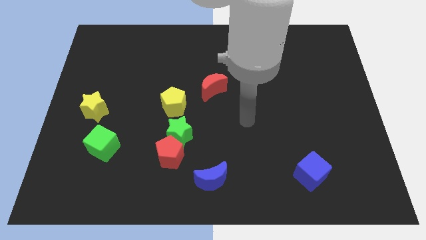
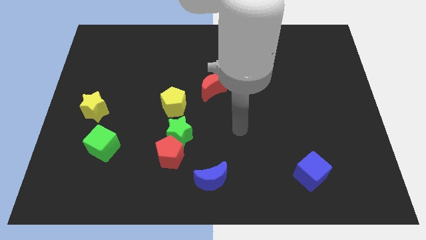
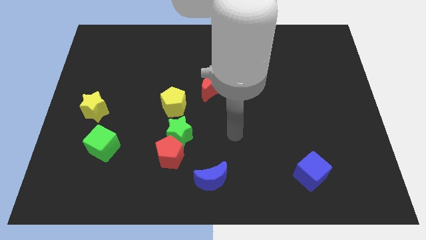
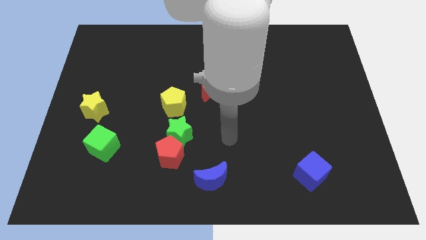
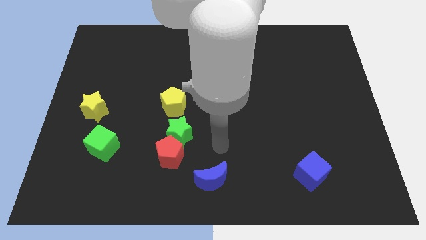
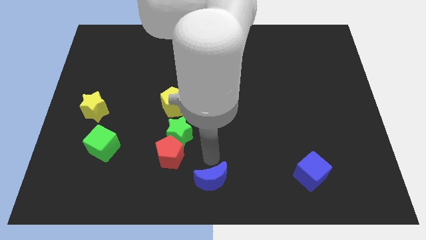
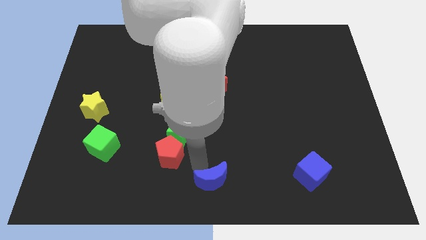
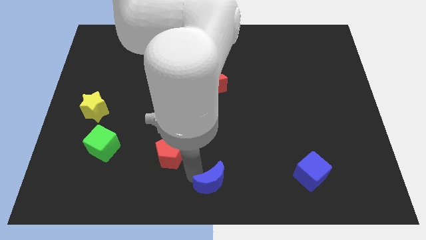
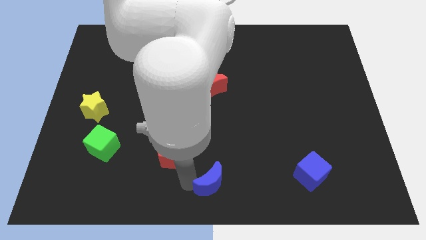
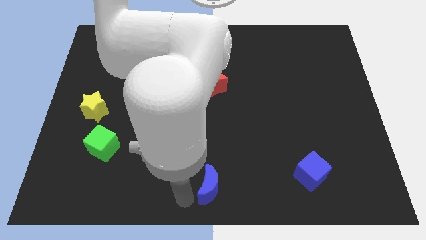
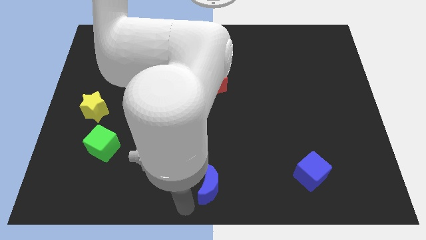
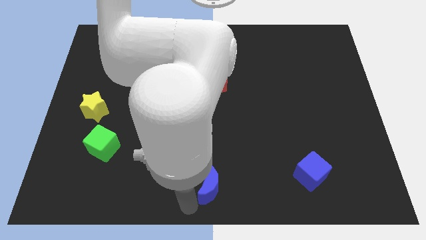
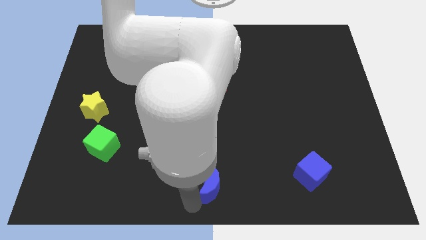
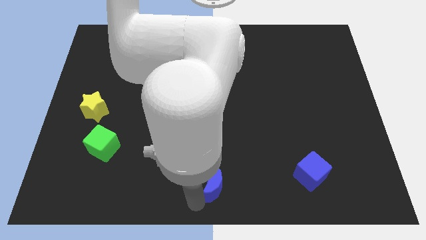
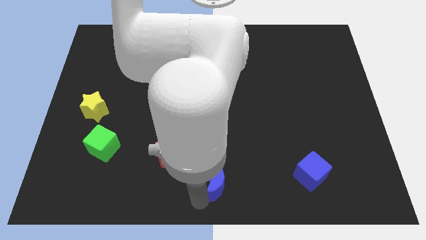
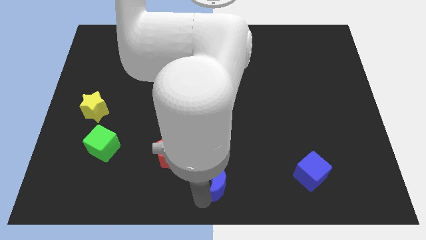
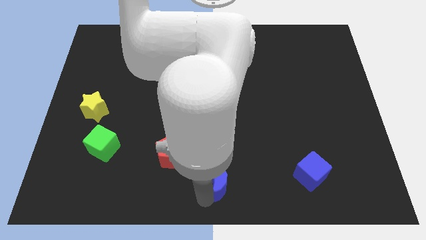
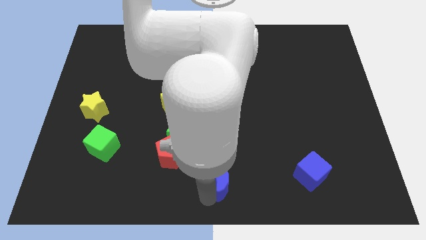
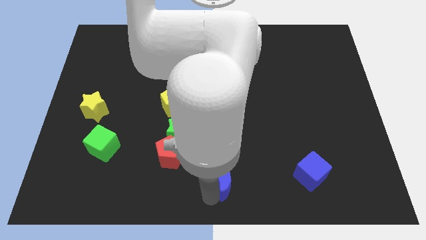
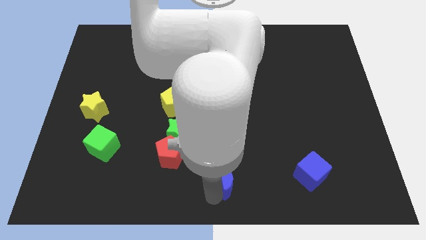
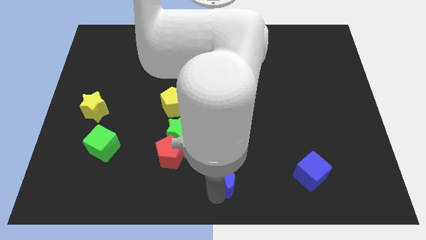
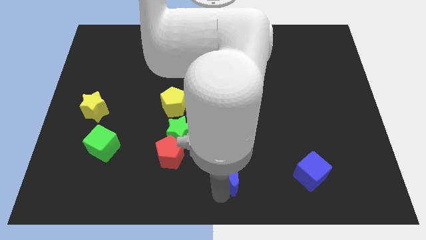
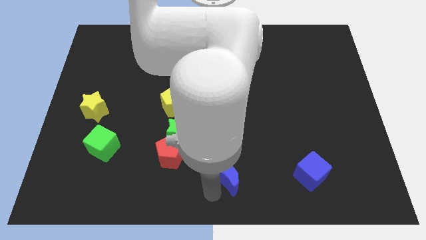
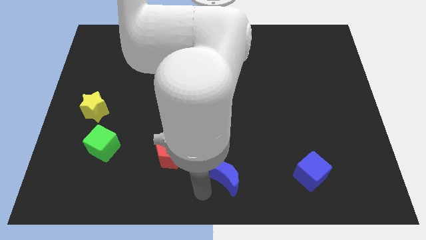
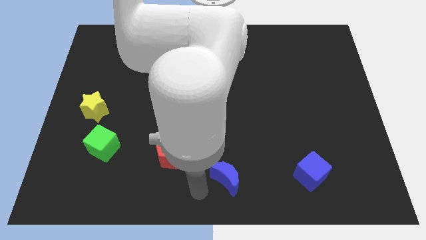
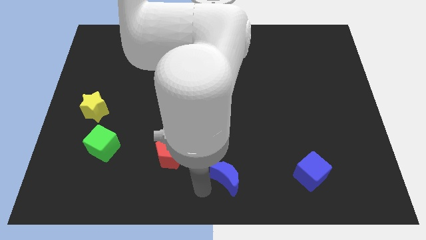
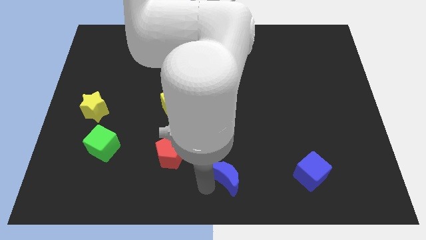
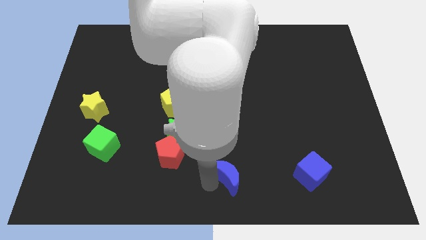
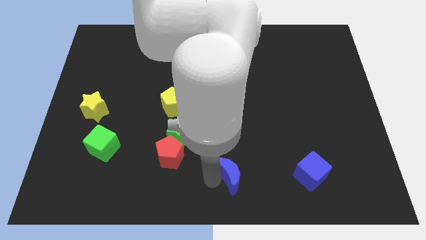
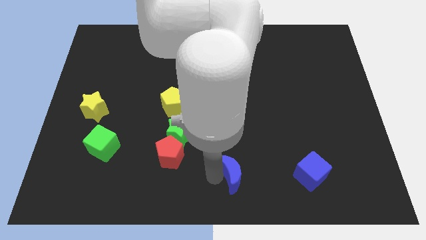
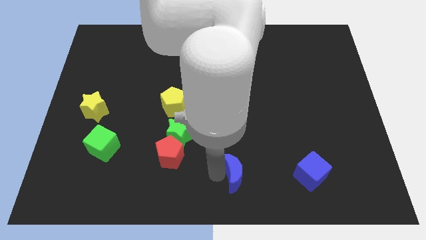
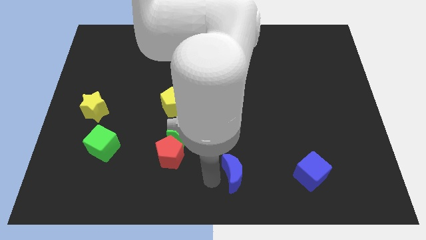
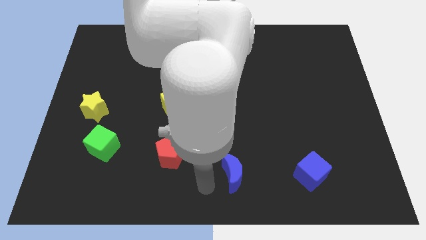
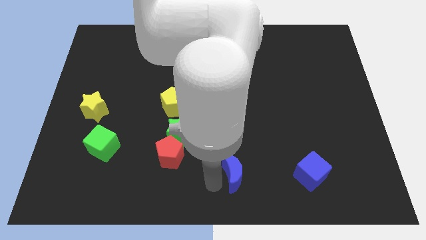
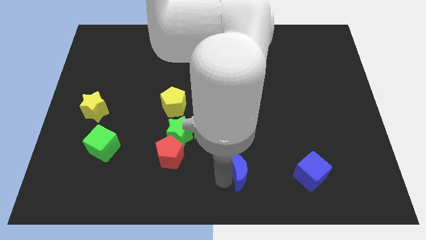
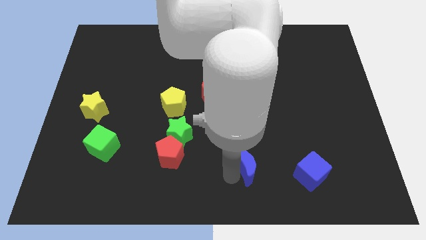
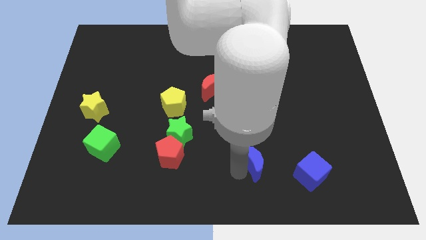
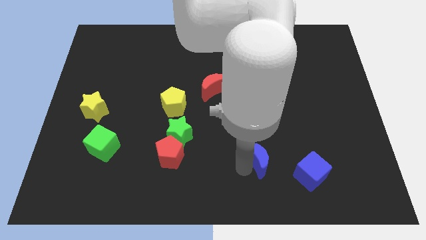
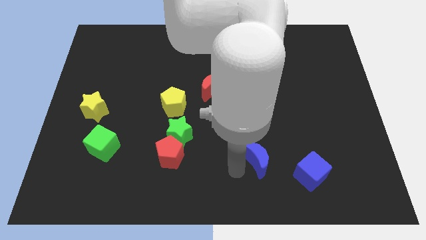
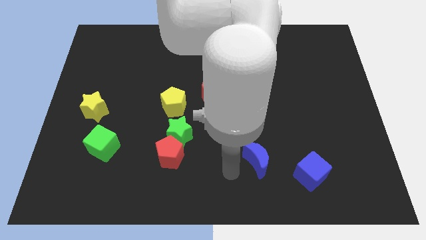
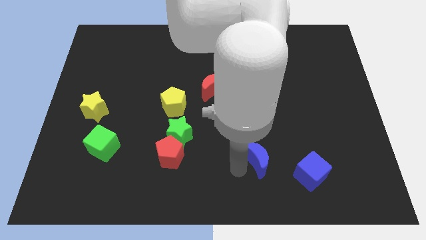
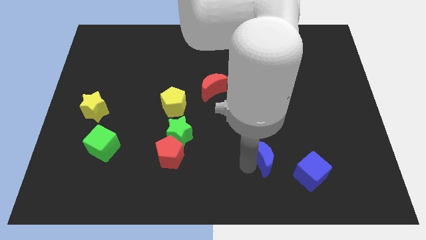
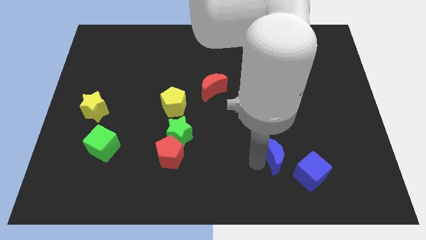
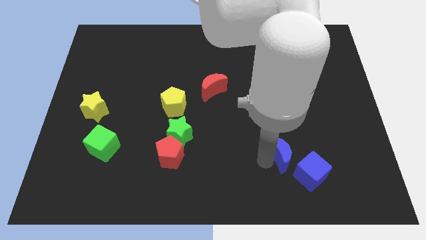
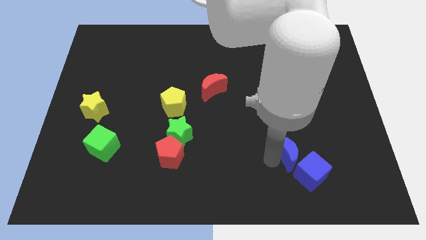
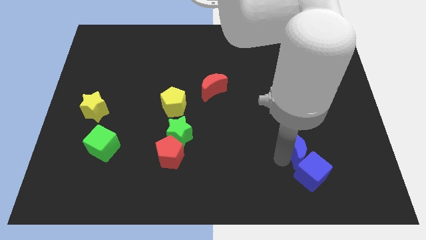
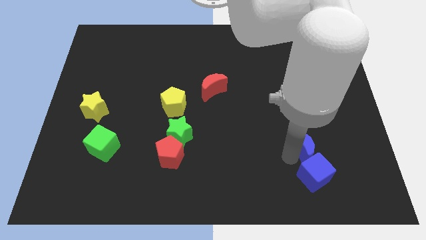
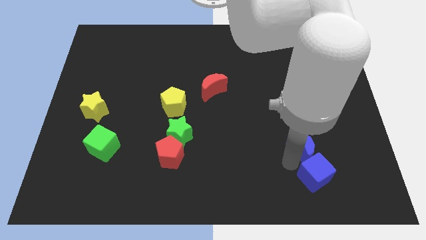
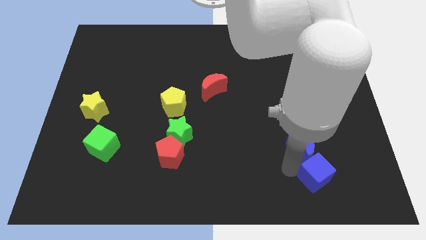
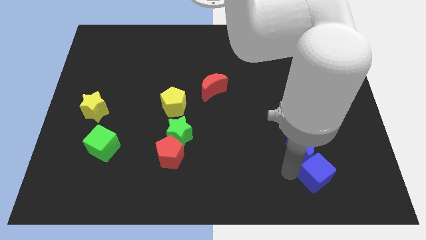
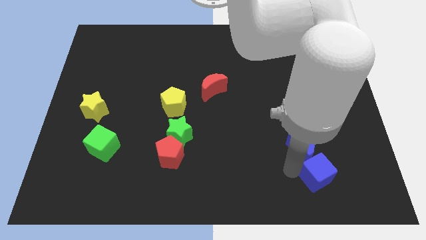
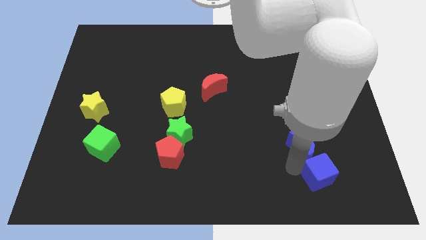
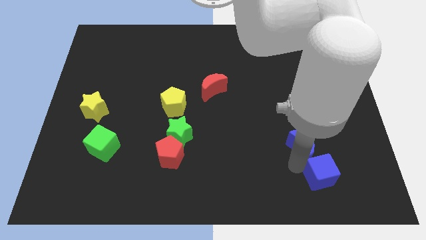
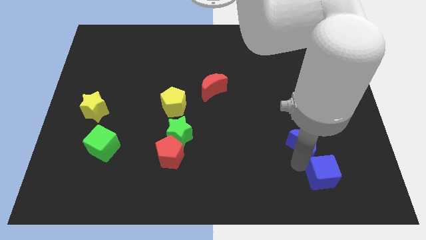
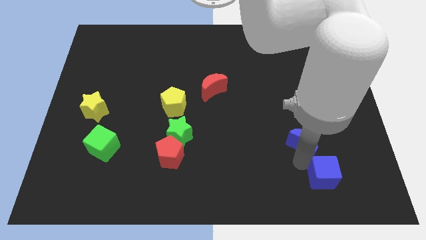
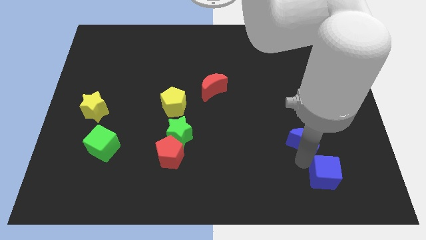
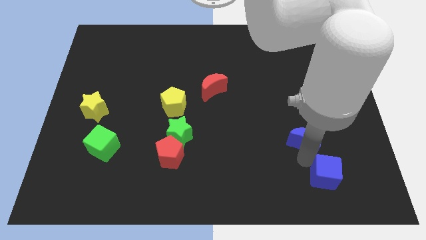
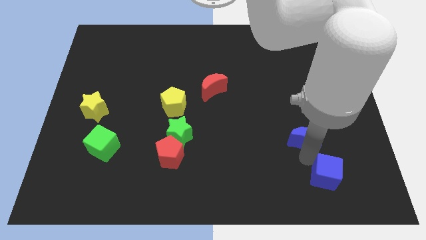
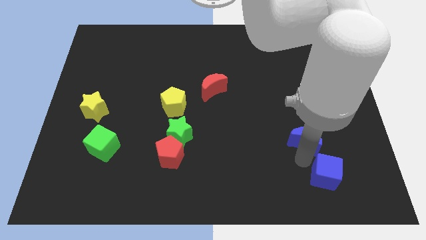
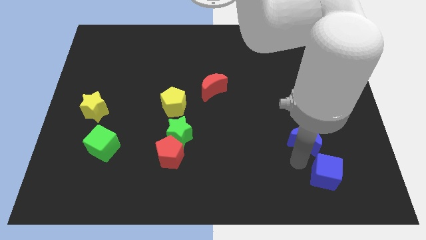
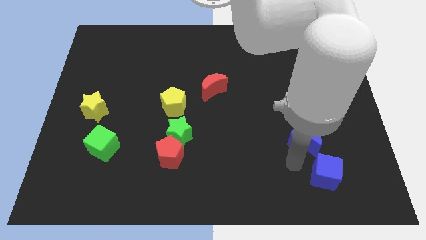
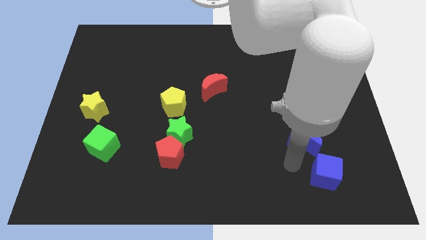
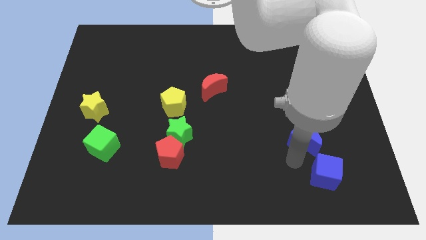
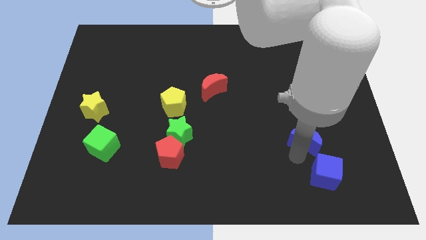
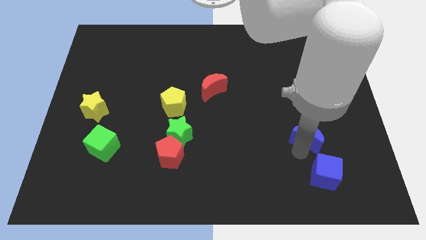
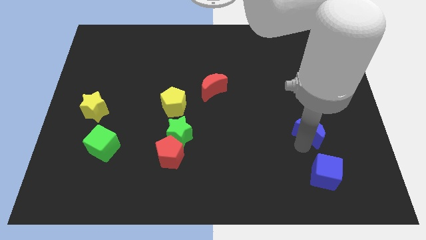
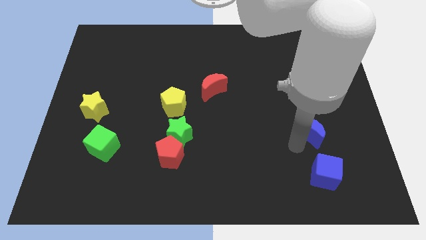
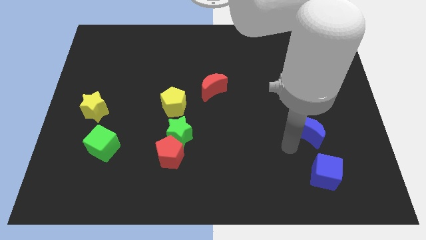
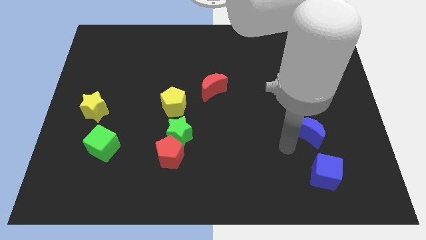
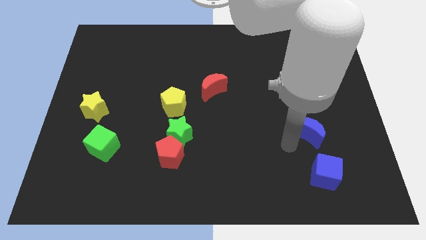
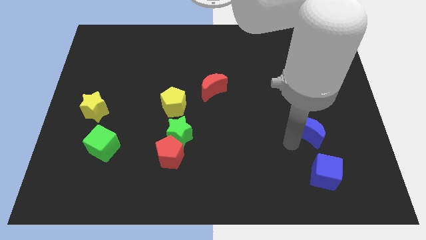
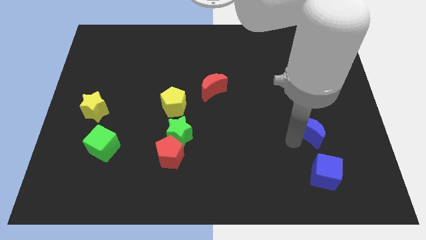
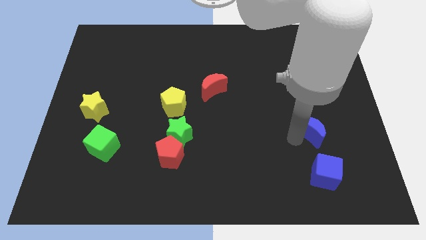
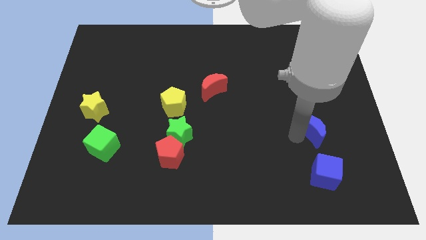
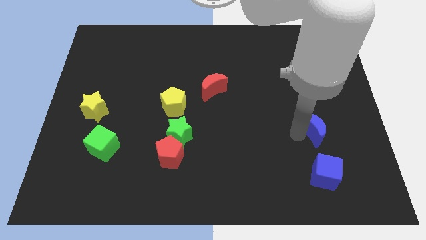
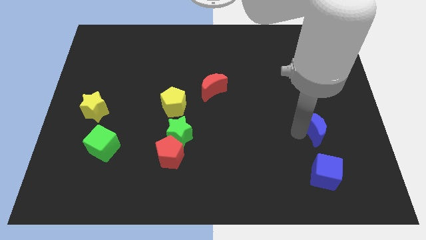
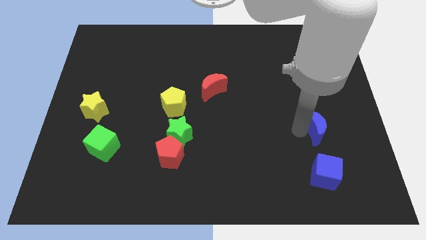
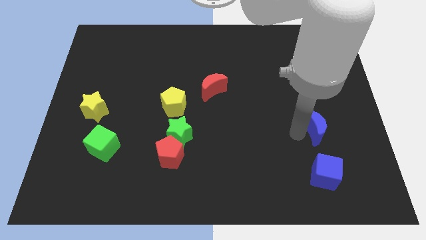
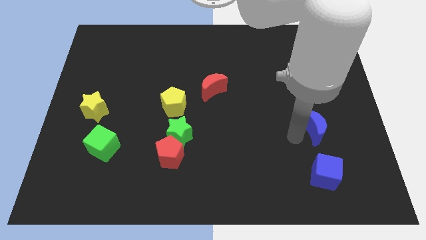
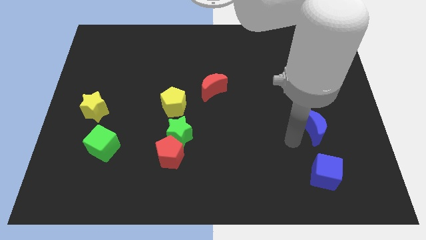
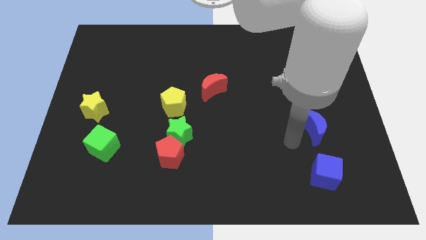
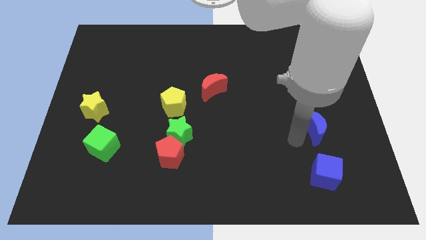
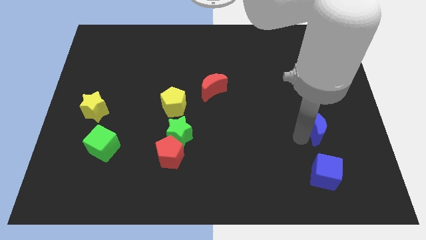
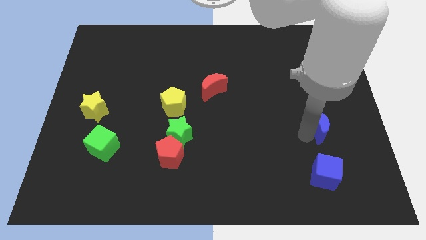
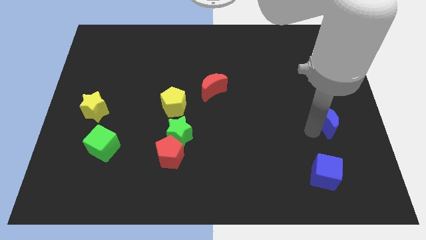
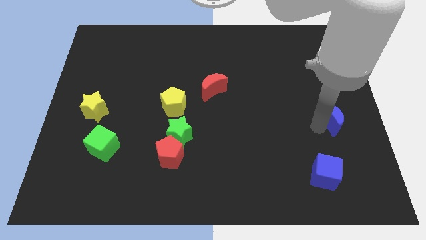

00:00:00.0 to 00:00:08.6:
slide the blue moon to the right side of the board
